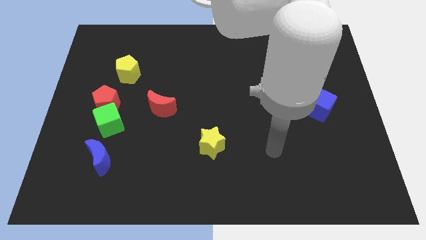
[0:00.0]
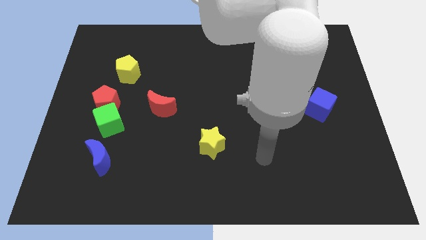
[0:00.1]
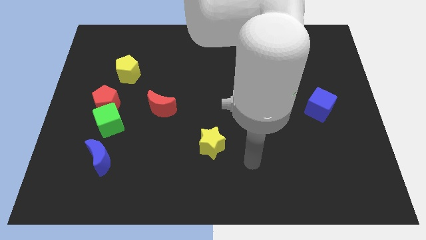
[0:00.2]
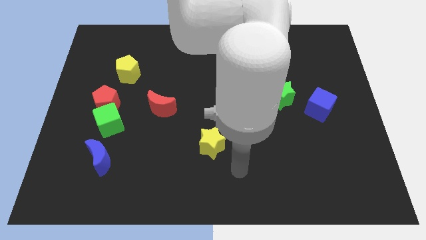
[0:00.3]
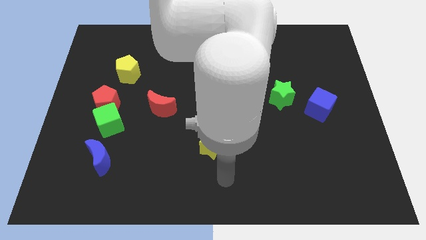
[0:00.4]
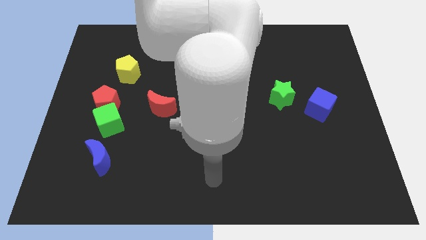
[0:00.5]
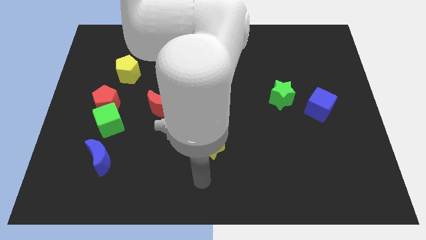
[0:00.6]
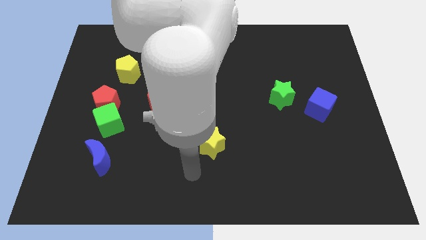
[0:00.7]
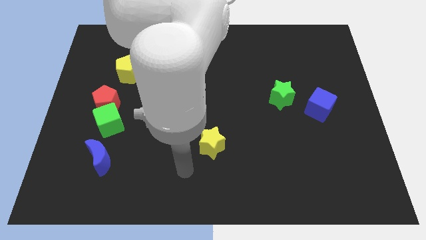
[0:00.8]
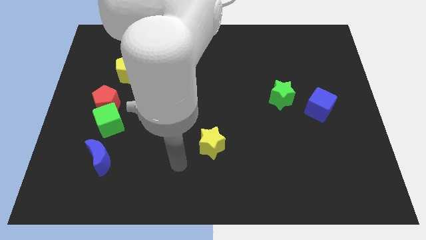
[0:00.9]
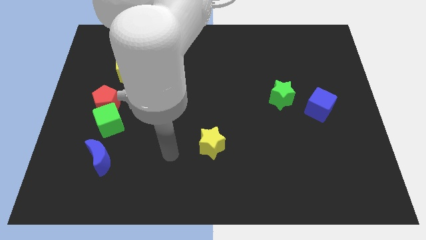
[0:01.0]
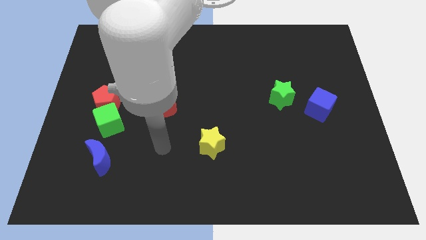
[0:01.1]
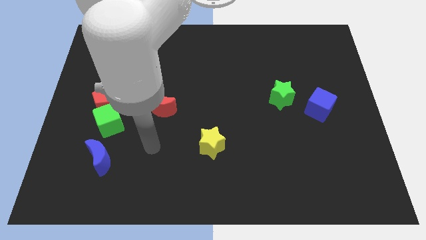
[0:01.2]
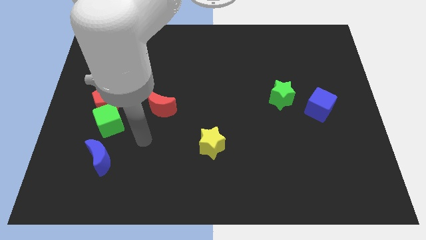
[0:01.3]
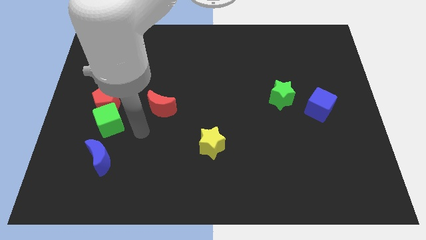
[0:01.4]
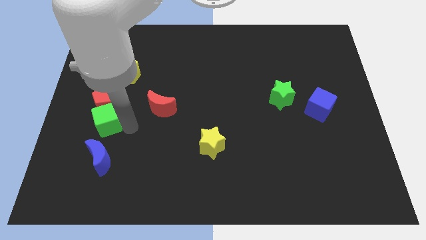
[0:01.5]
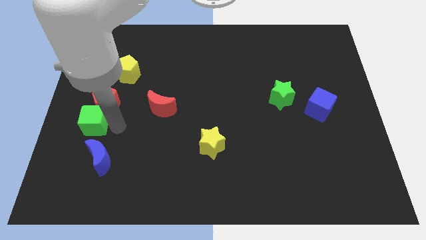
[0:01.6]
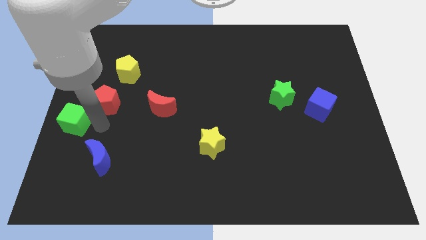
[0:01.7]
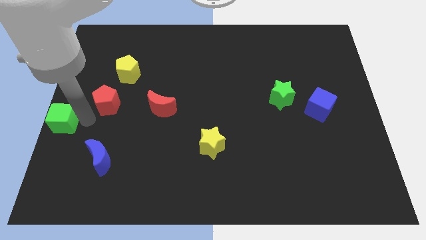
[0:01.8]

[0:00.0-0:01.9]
move the red pentagon away from the green cube

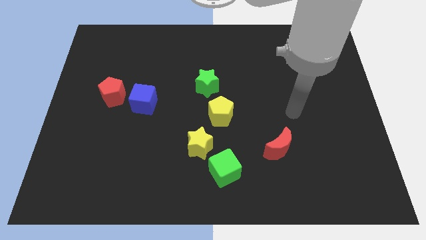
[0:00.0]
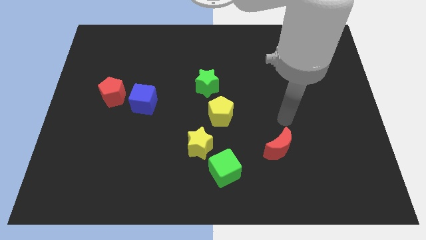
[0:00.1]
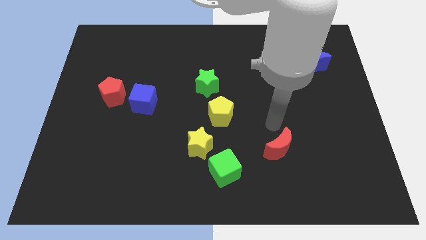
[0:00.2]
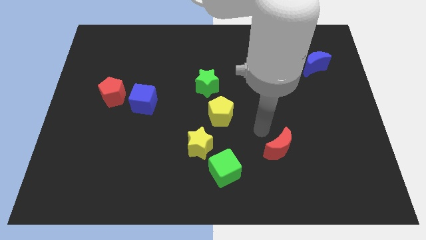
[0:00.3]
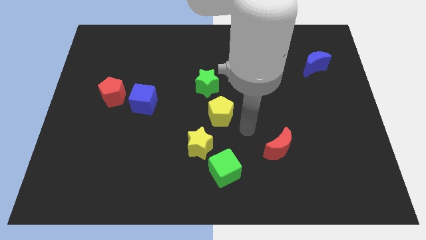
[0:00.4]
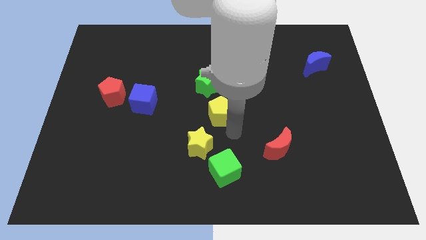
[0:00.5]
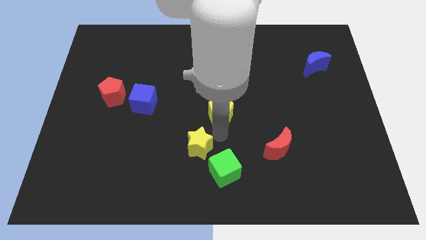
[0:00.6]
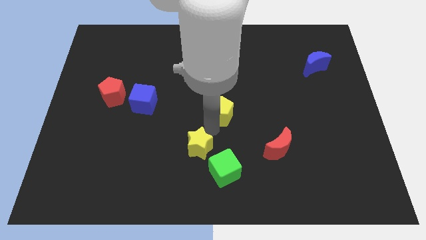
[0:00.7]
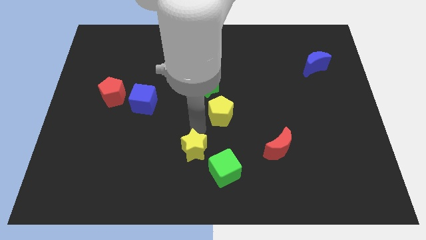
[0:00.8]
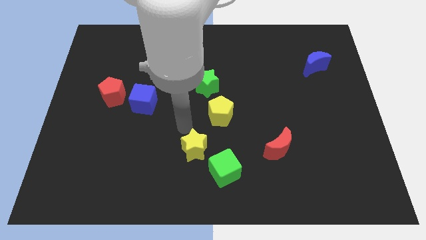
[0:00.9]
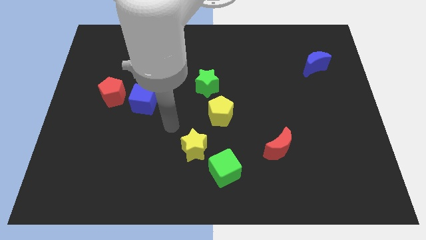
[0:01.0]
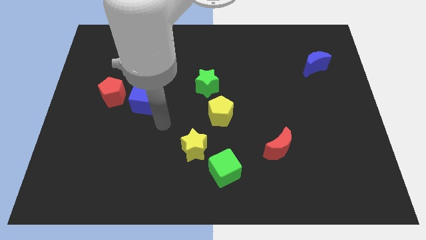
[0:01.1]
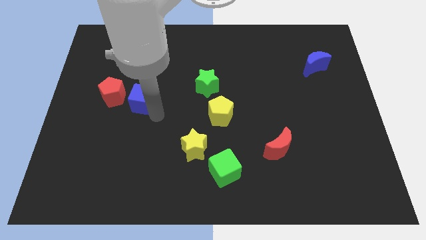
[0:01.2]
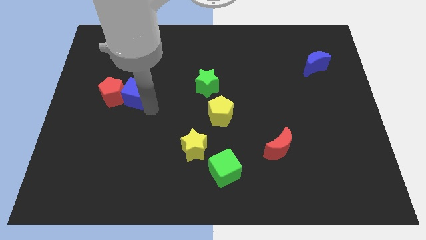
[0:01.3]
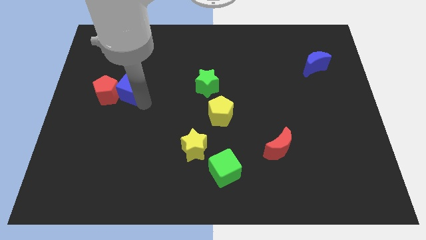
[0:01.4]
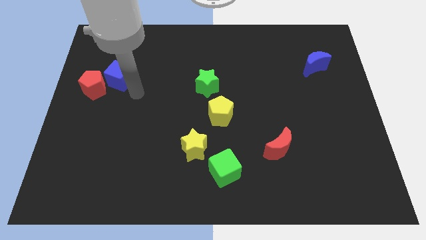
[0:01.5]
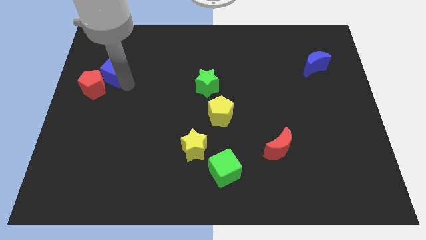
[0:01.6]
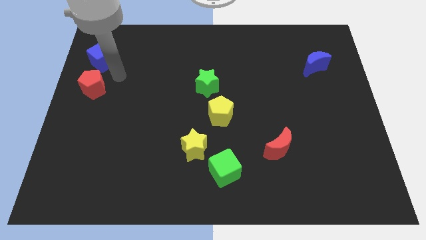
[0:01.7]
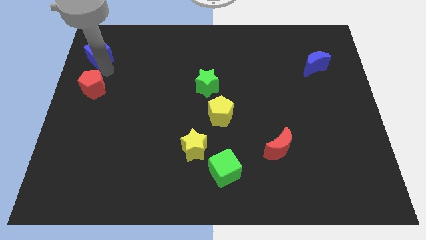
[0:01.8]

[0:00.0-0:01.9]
separate the red pentagon from the blue cube

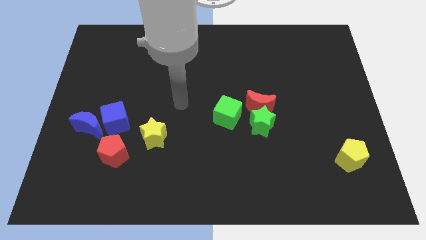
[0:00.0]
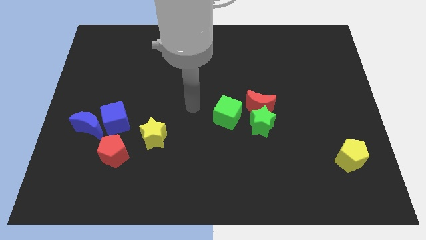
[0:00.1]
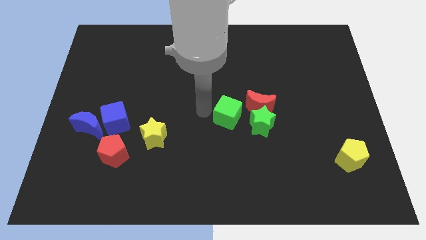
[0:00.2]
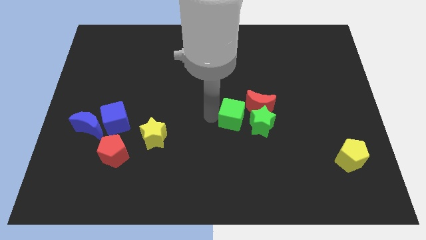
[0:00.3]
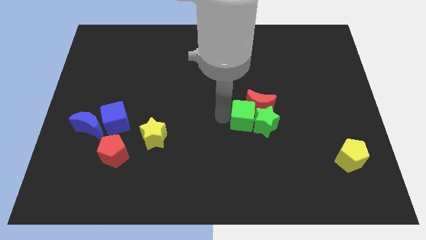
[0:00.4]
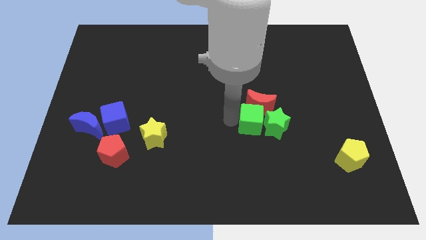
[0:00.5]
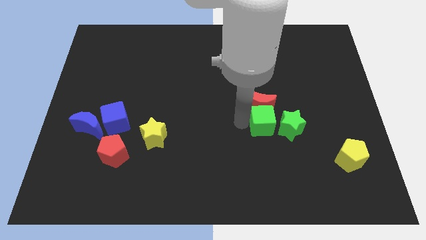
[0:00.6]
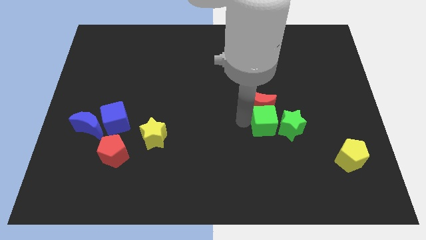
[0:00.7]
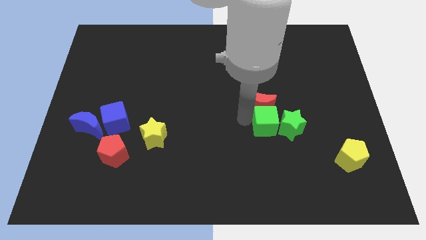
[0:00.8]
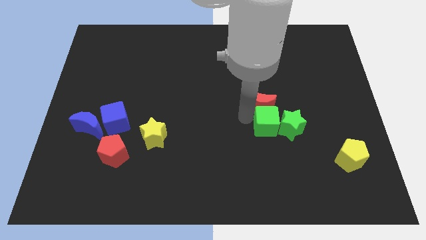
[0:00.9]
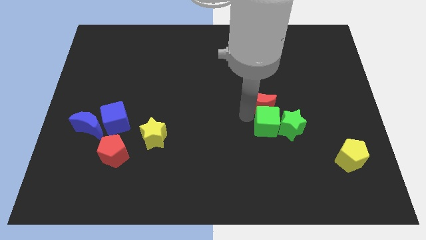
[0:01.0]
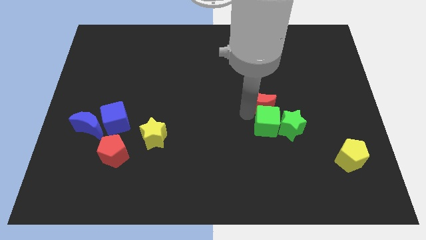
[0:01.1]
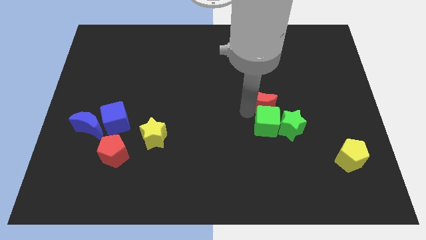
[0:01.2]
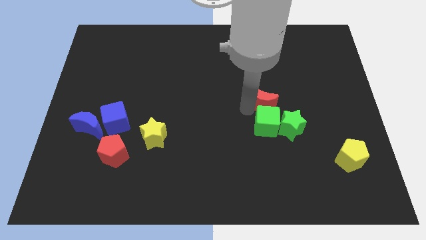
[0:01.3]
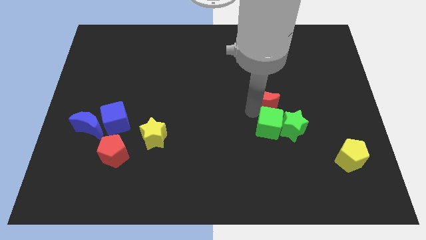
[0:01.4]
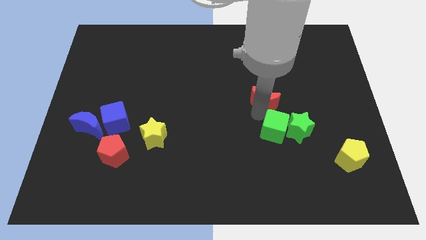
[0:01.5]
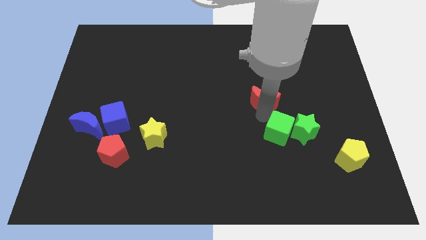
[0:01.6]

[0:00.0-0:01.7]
pull the red moon apart from the green star and green cube

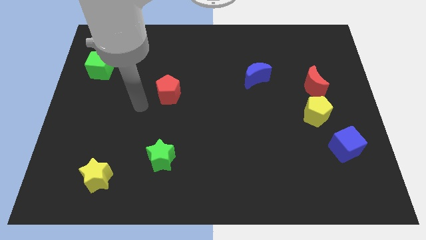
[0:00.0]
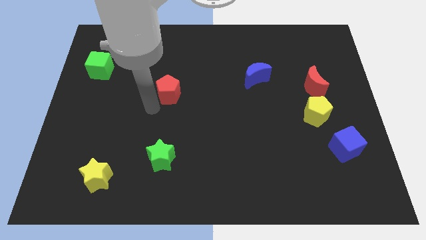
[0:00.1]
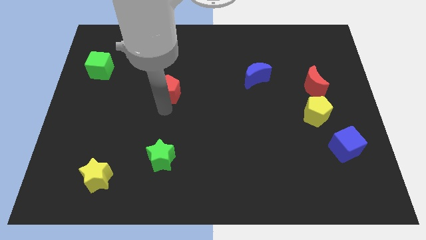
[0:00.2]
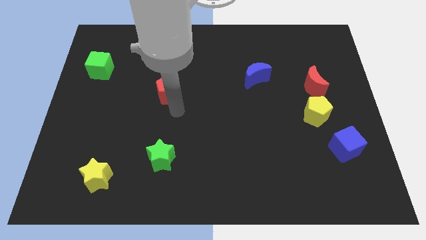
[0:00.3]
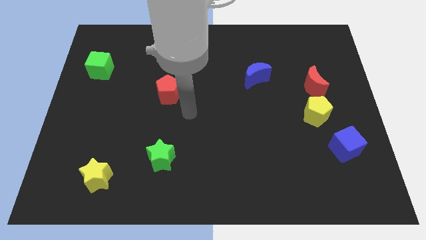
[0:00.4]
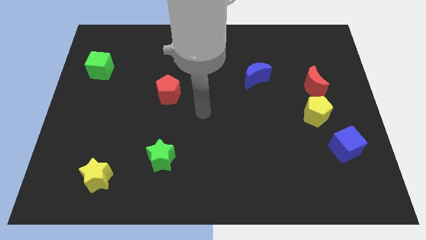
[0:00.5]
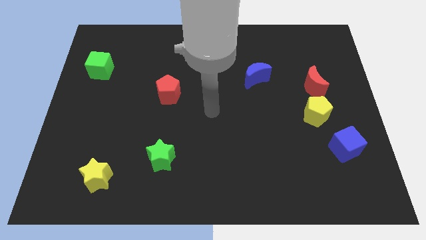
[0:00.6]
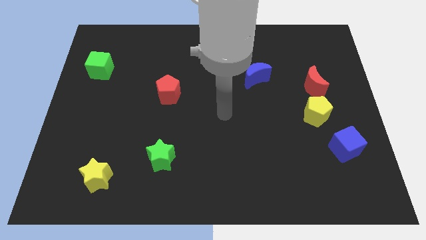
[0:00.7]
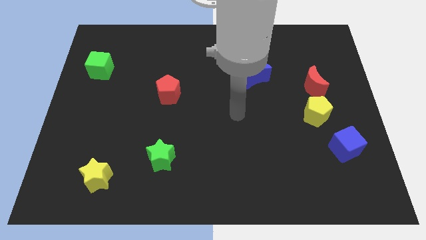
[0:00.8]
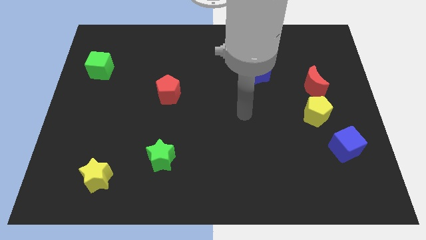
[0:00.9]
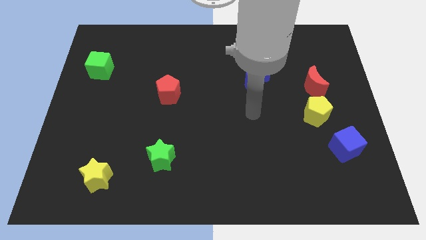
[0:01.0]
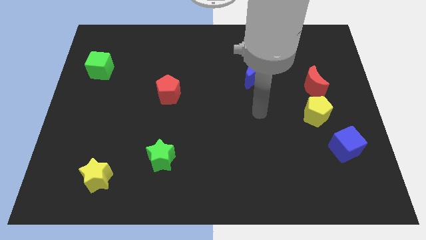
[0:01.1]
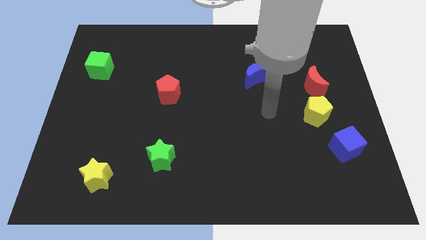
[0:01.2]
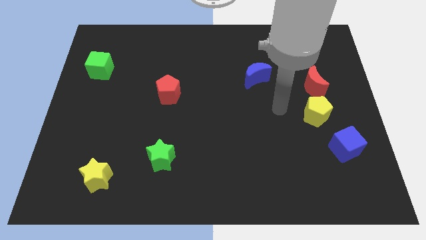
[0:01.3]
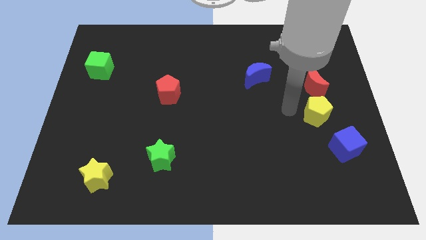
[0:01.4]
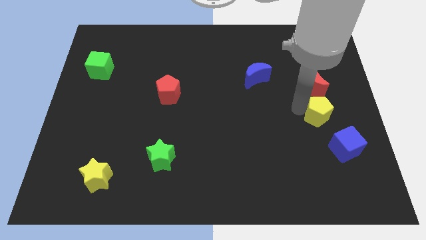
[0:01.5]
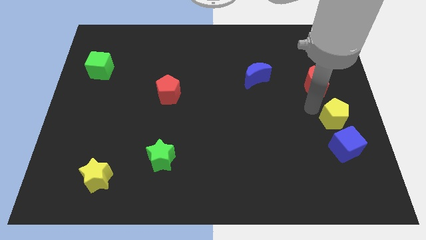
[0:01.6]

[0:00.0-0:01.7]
separate the red moon from the yellow pentagon

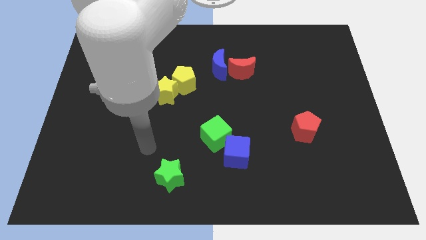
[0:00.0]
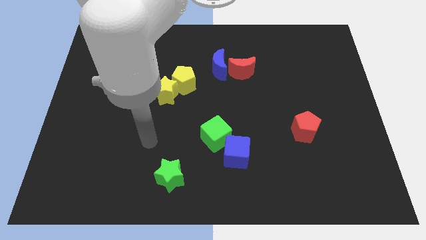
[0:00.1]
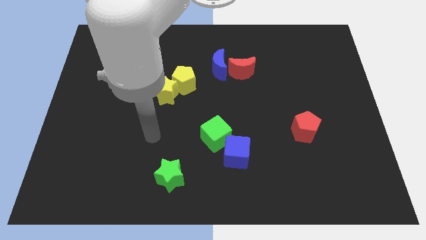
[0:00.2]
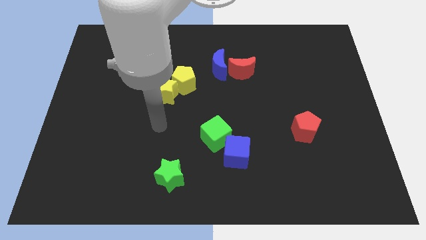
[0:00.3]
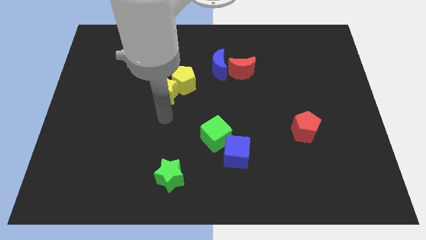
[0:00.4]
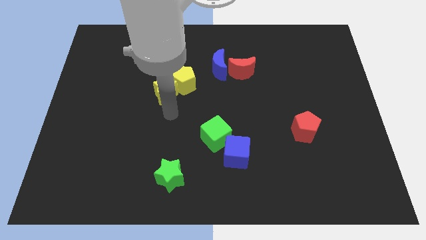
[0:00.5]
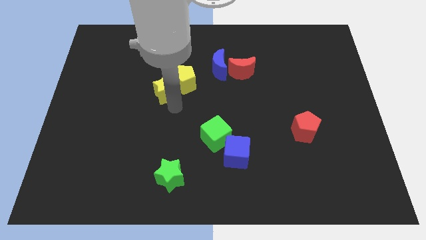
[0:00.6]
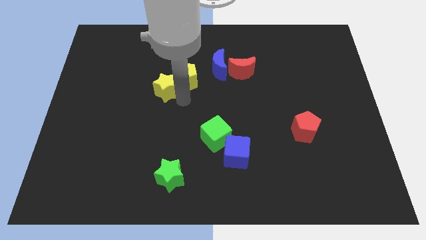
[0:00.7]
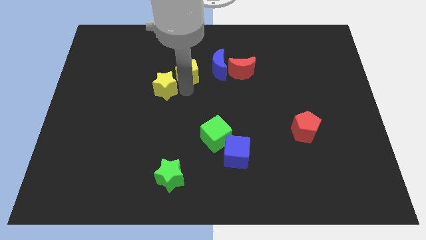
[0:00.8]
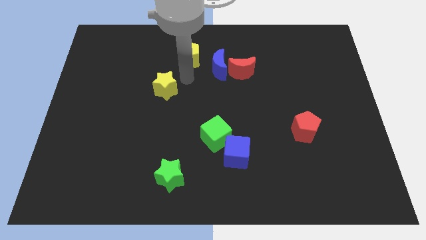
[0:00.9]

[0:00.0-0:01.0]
separate the yellow star from the yellow pentagon

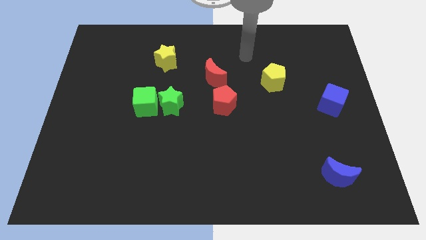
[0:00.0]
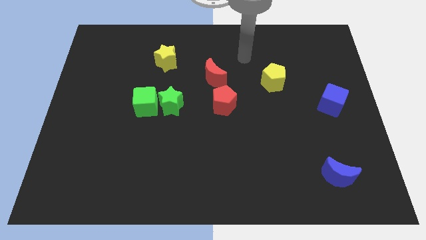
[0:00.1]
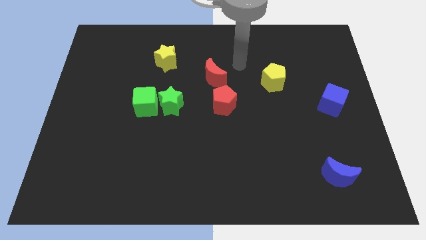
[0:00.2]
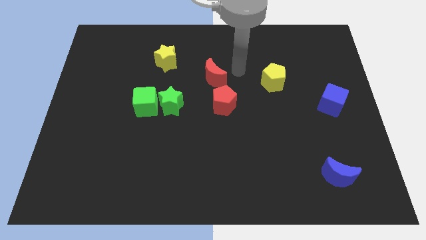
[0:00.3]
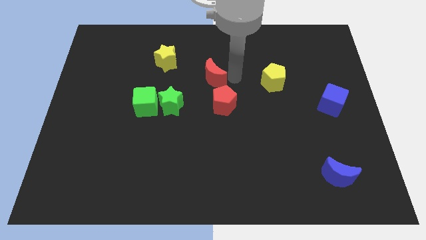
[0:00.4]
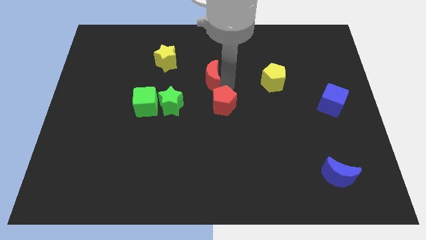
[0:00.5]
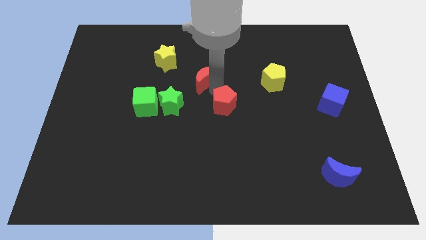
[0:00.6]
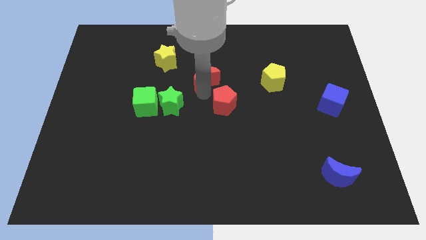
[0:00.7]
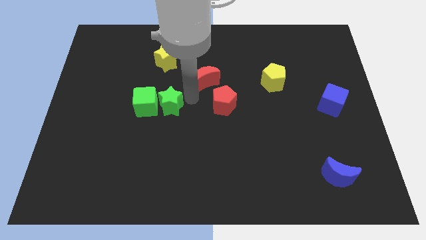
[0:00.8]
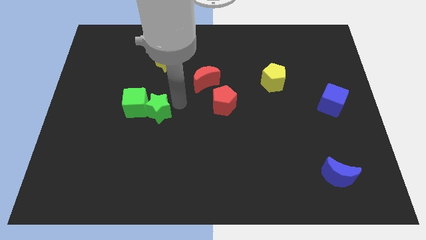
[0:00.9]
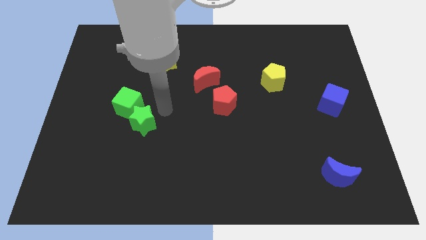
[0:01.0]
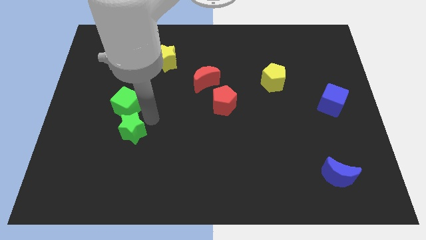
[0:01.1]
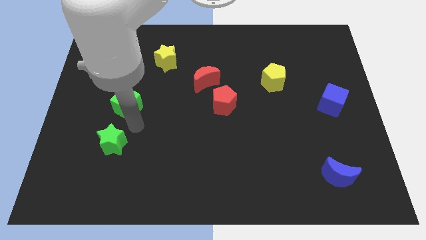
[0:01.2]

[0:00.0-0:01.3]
move the green cube away from the green star
